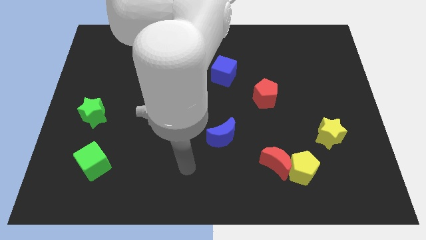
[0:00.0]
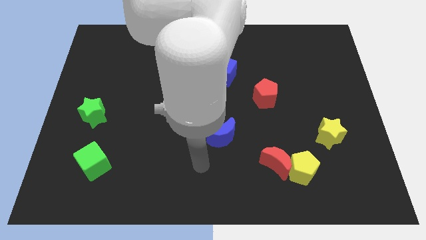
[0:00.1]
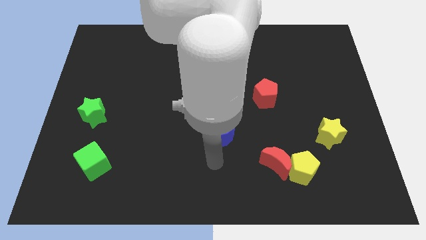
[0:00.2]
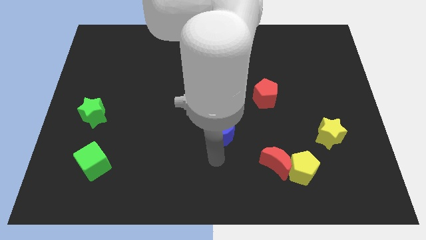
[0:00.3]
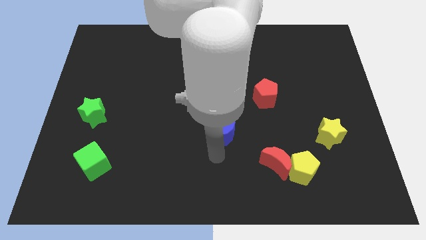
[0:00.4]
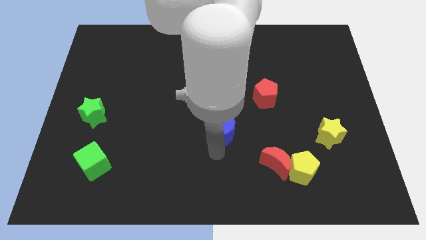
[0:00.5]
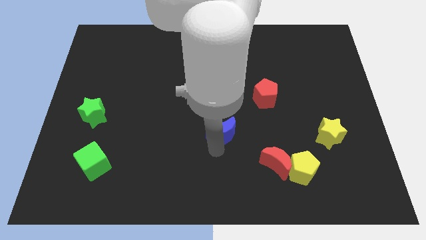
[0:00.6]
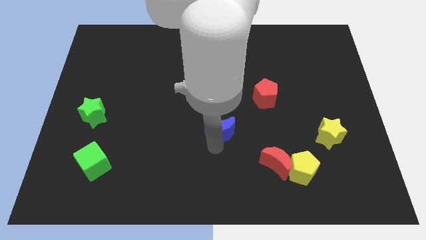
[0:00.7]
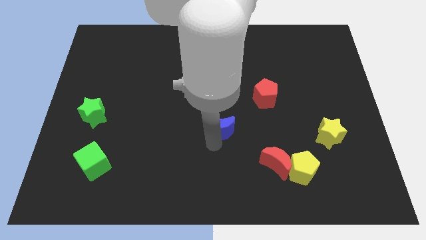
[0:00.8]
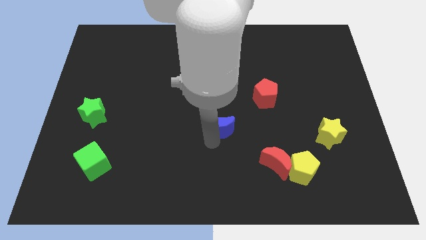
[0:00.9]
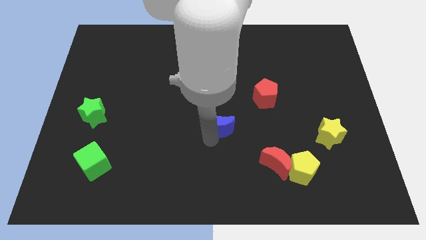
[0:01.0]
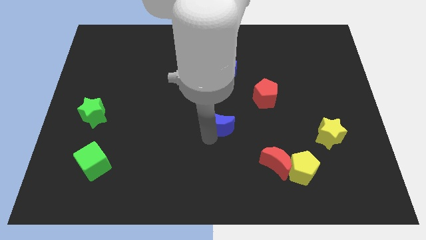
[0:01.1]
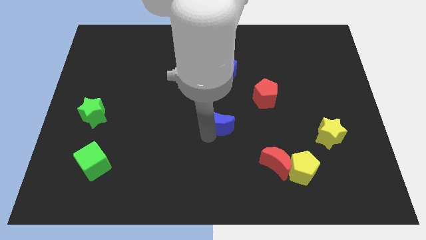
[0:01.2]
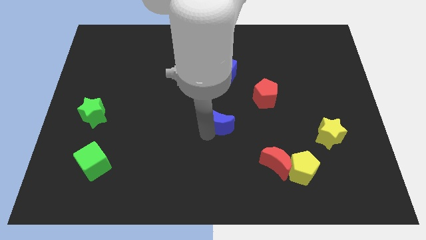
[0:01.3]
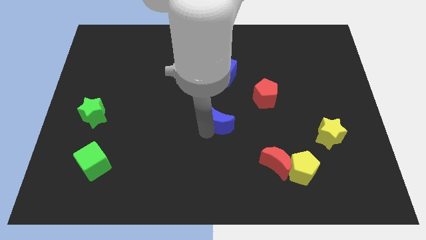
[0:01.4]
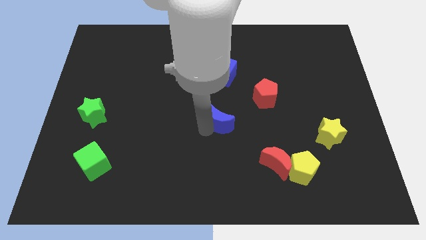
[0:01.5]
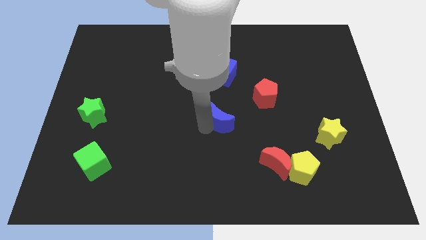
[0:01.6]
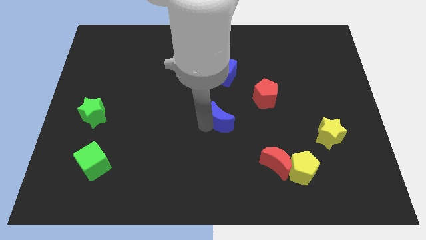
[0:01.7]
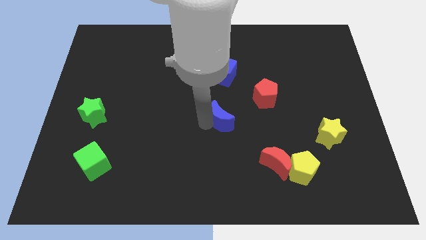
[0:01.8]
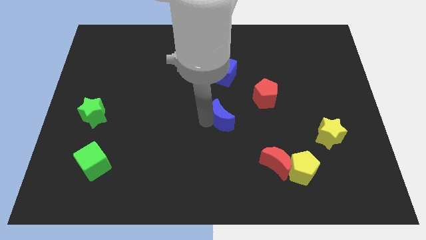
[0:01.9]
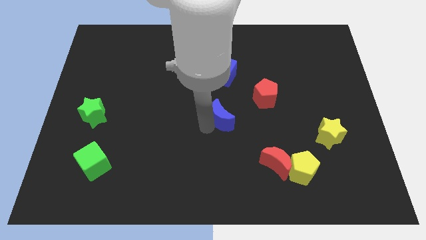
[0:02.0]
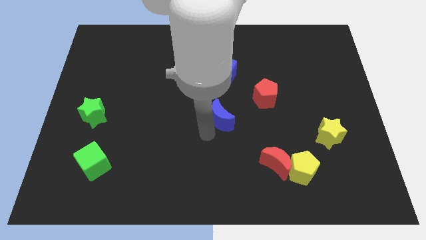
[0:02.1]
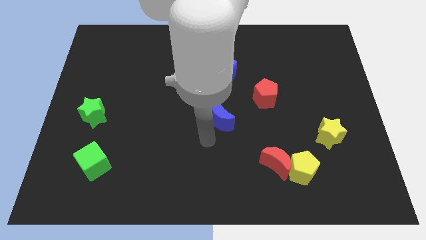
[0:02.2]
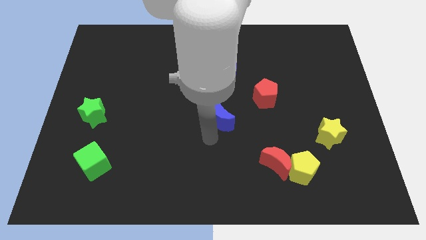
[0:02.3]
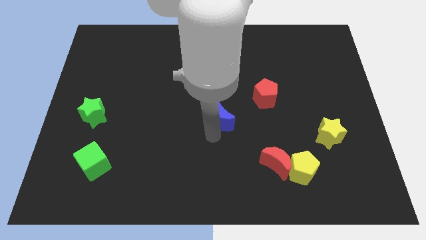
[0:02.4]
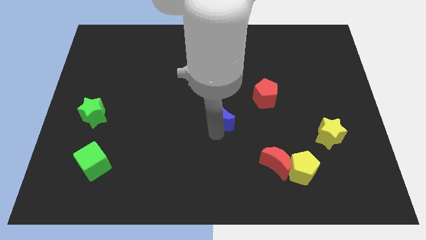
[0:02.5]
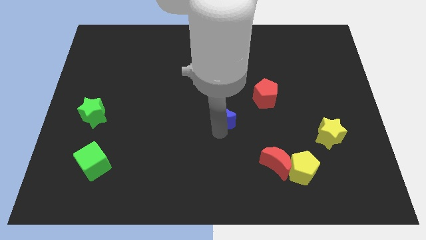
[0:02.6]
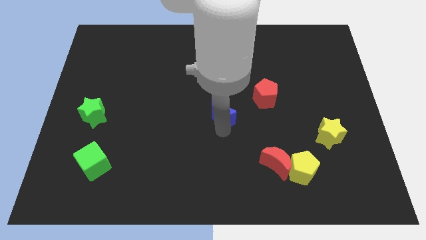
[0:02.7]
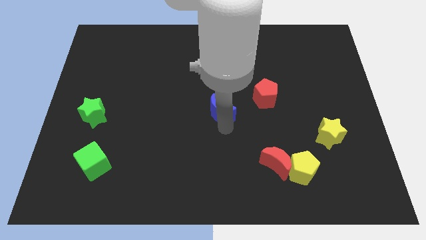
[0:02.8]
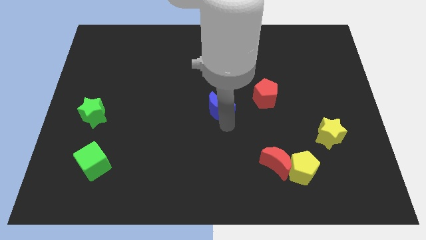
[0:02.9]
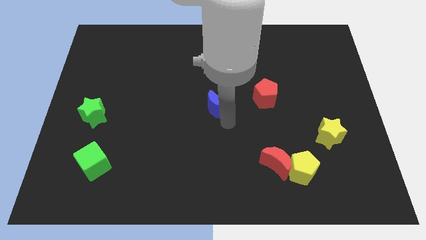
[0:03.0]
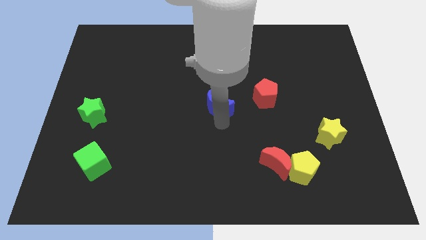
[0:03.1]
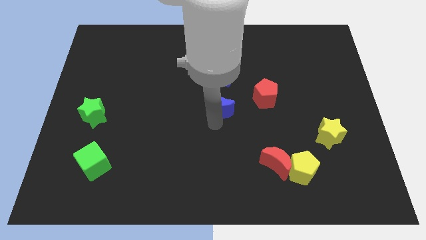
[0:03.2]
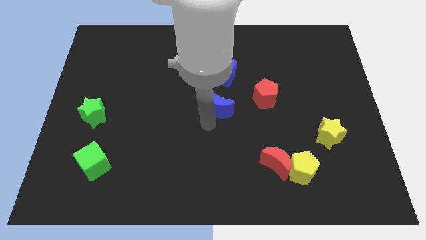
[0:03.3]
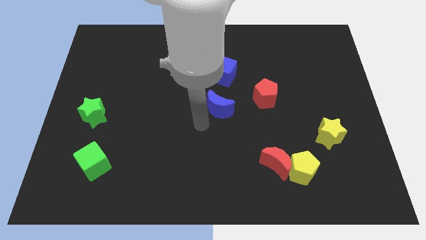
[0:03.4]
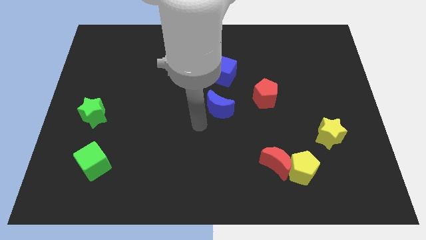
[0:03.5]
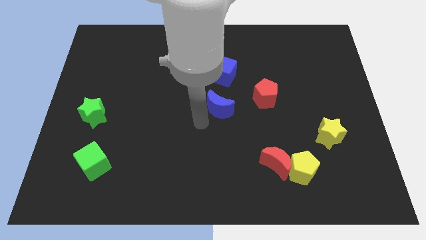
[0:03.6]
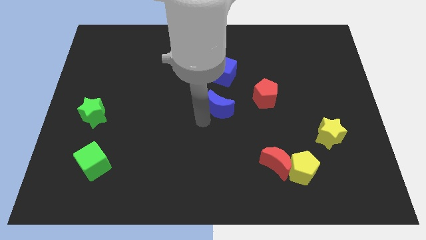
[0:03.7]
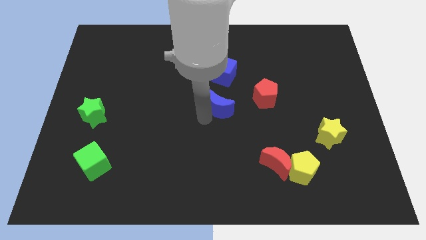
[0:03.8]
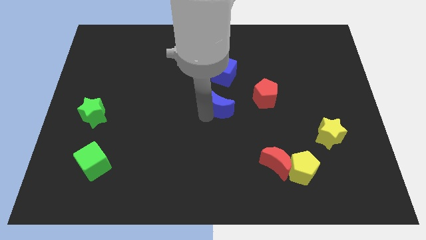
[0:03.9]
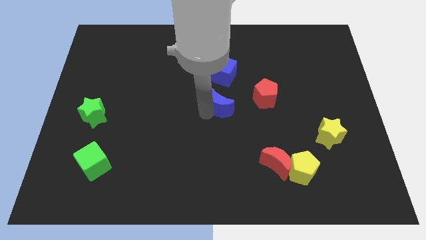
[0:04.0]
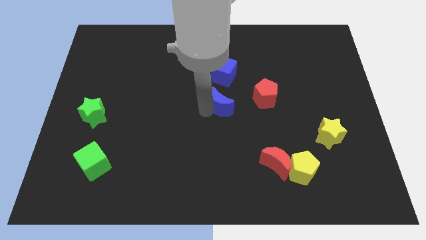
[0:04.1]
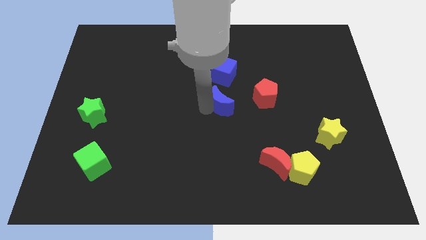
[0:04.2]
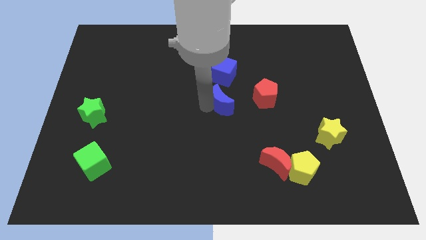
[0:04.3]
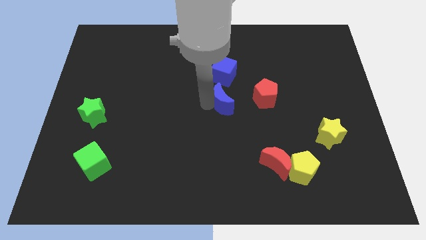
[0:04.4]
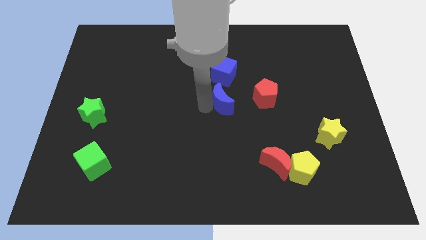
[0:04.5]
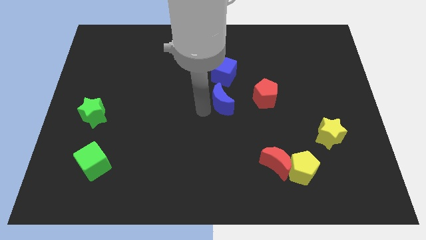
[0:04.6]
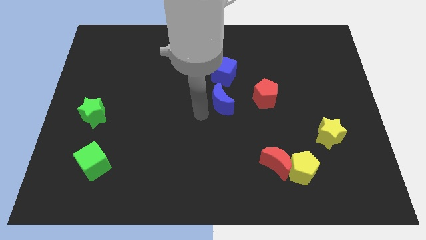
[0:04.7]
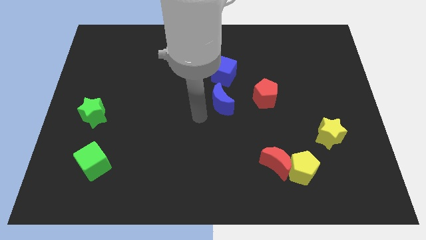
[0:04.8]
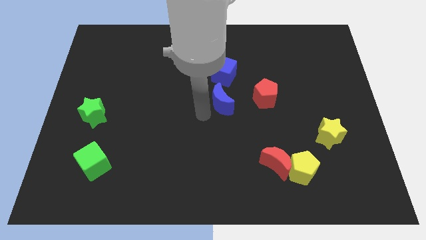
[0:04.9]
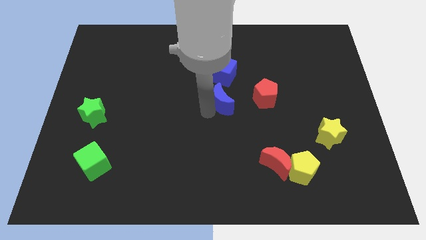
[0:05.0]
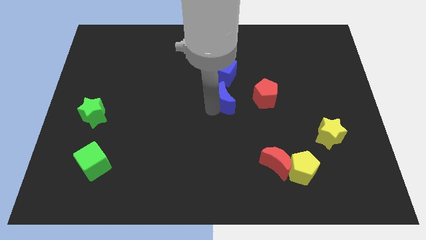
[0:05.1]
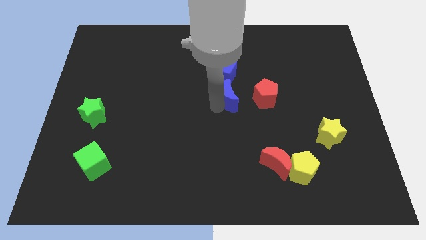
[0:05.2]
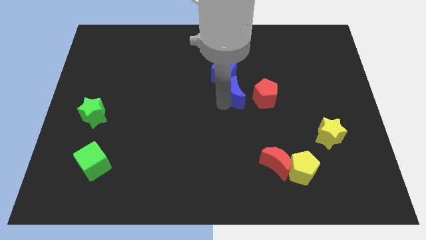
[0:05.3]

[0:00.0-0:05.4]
move the blue moon to the top left of the red pentagon

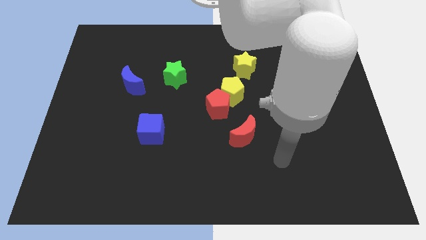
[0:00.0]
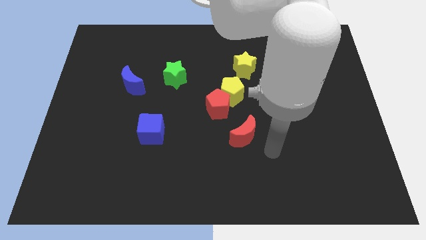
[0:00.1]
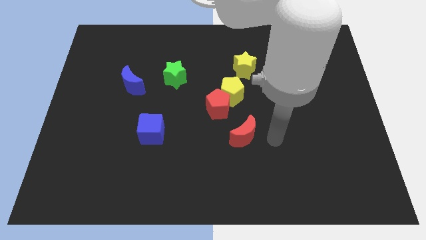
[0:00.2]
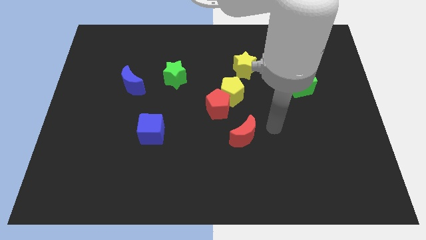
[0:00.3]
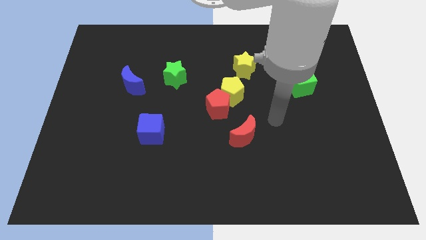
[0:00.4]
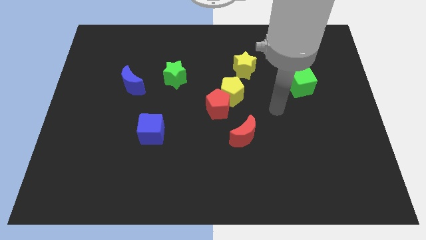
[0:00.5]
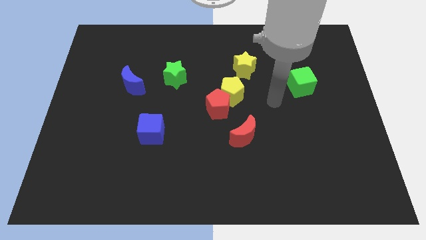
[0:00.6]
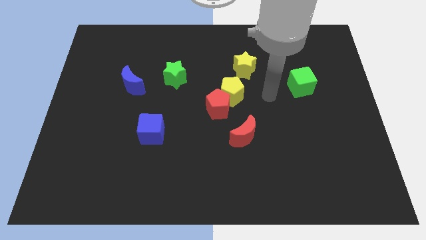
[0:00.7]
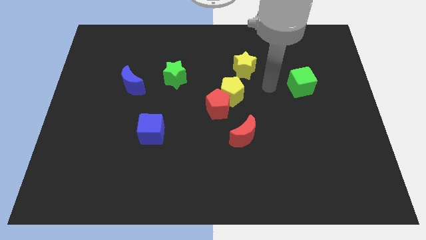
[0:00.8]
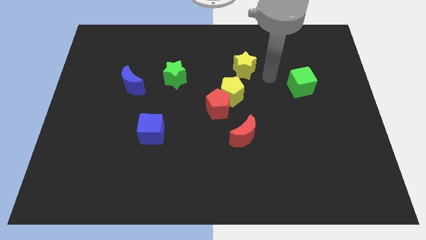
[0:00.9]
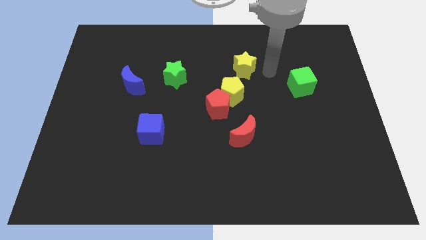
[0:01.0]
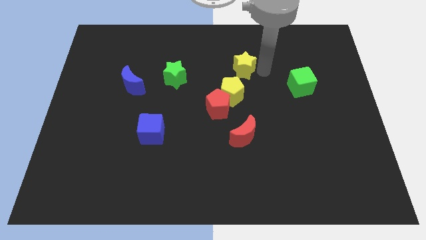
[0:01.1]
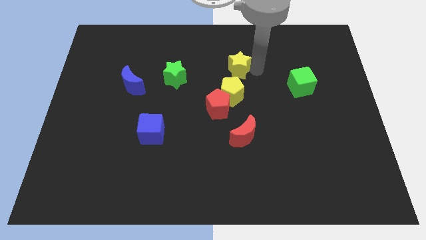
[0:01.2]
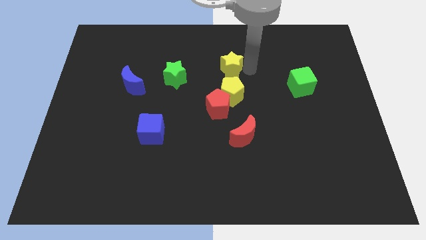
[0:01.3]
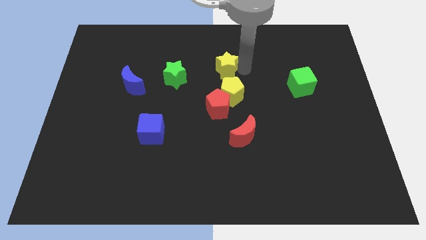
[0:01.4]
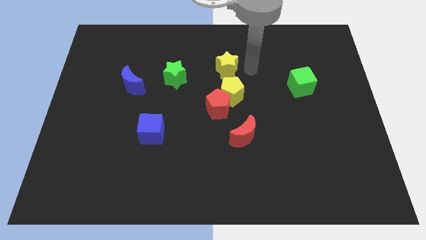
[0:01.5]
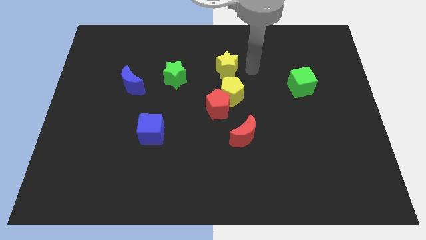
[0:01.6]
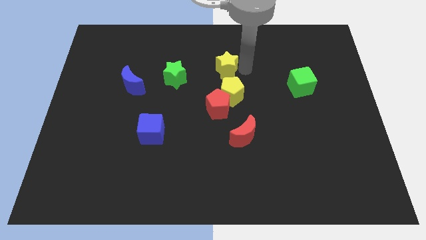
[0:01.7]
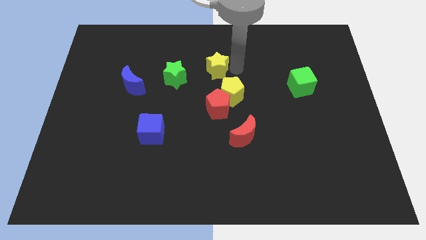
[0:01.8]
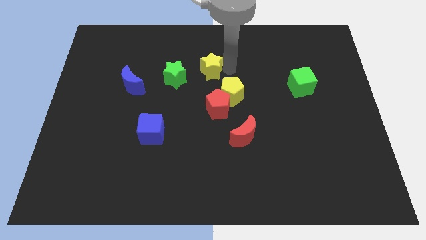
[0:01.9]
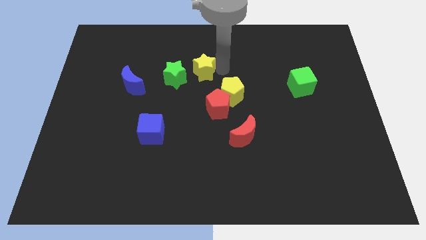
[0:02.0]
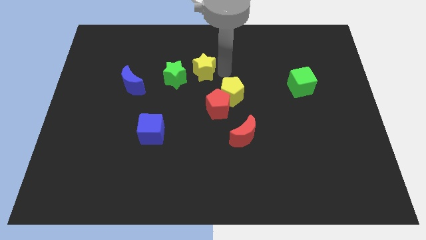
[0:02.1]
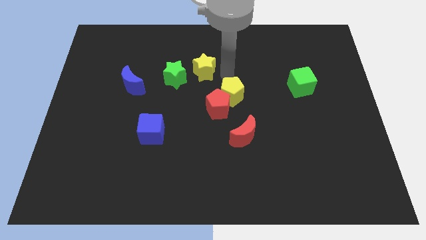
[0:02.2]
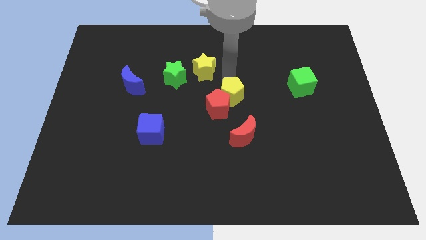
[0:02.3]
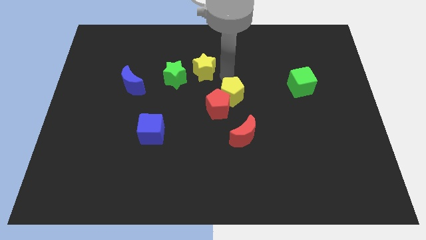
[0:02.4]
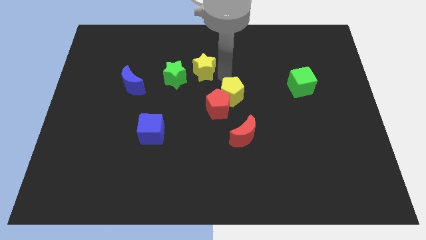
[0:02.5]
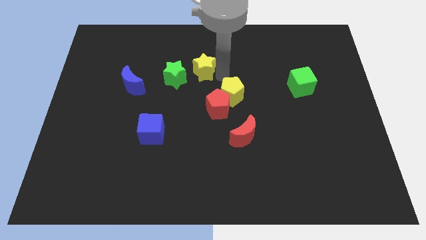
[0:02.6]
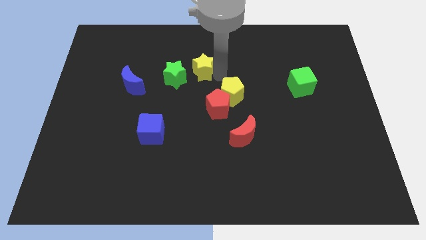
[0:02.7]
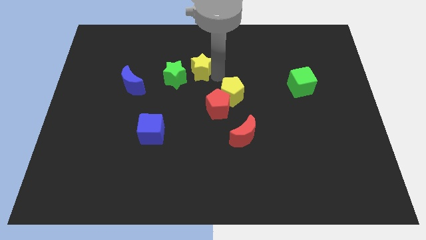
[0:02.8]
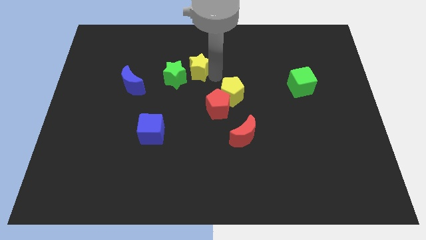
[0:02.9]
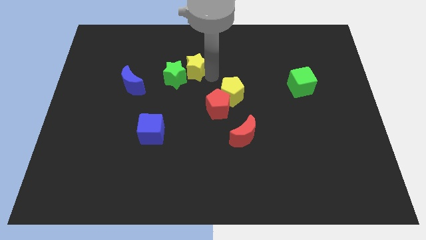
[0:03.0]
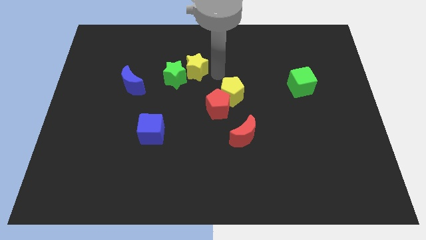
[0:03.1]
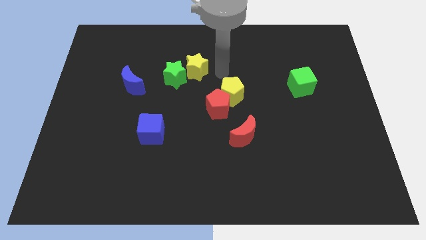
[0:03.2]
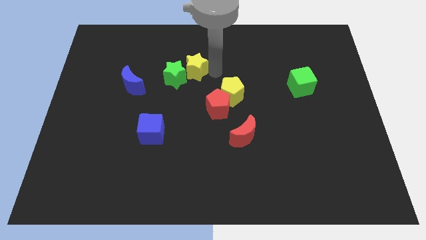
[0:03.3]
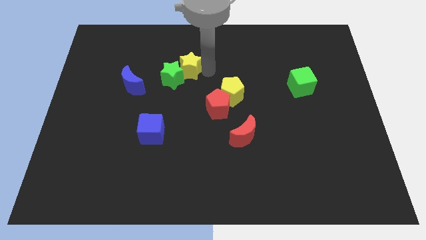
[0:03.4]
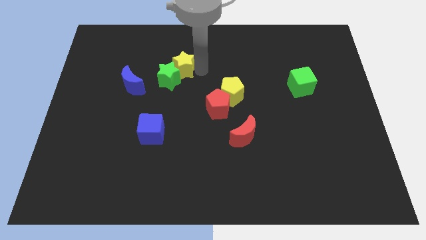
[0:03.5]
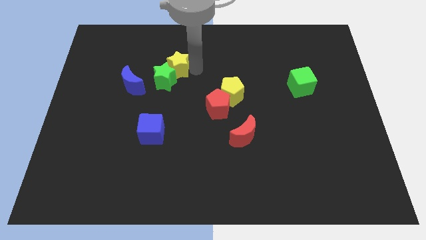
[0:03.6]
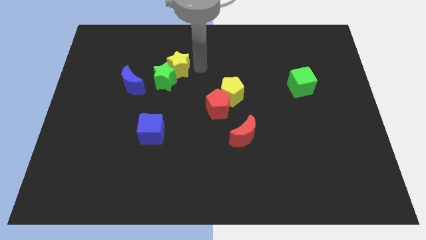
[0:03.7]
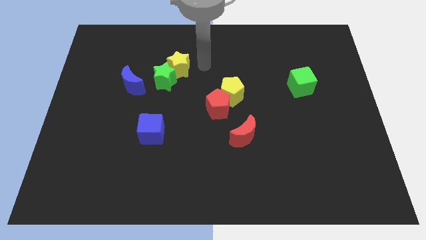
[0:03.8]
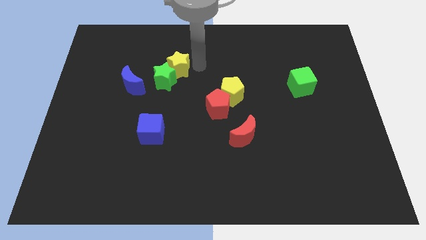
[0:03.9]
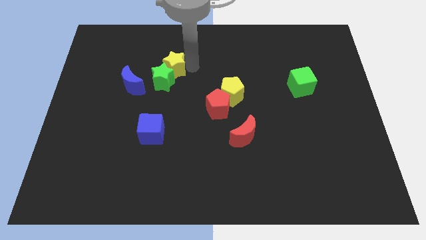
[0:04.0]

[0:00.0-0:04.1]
put the yellow star diagonally up and to the right of the blue moon
